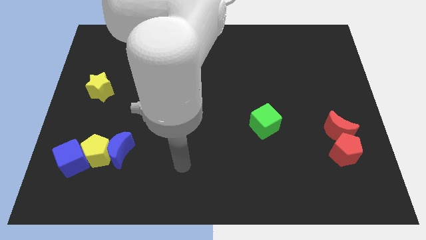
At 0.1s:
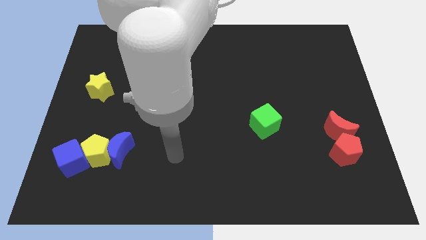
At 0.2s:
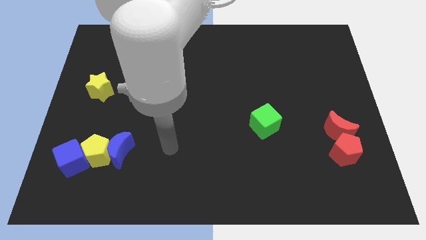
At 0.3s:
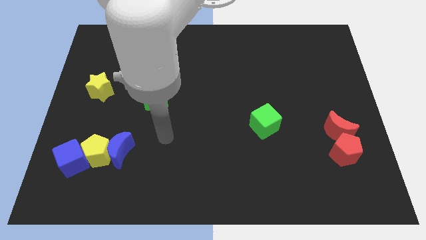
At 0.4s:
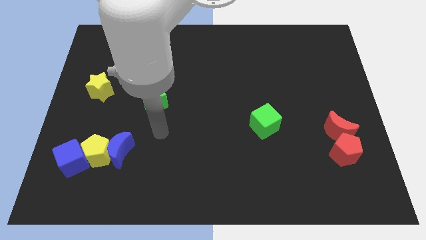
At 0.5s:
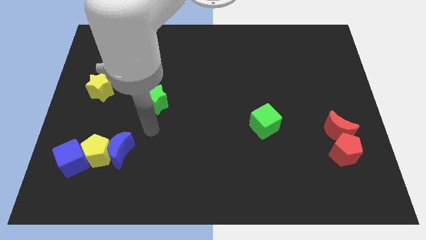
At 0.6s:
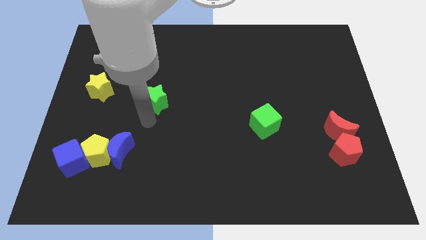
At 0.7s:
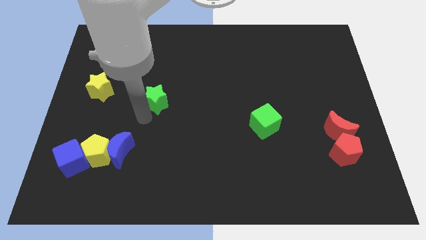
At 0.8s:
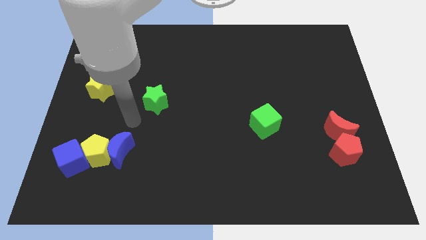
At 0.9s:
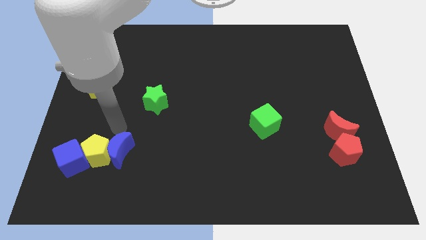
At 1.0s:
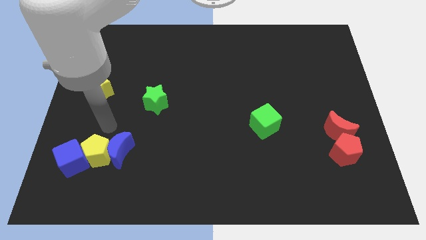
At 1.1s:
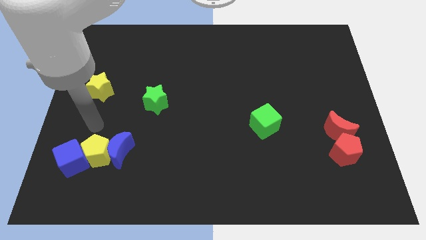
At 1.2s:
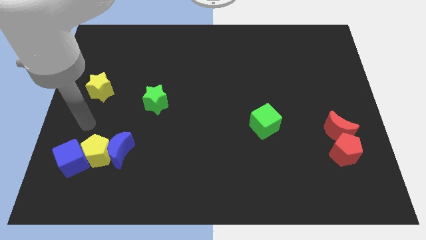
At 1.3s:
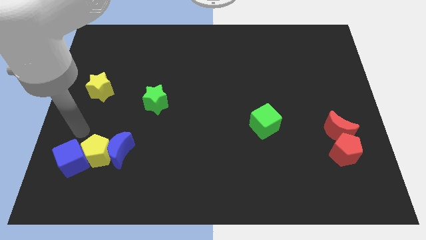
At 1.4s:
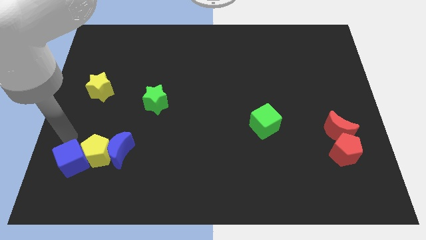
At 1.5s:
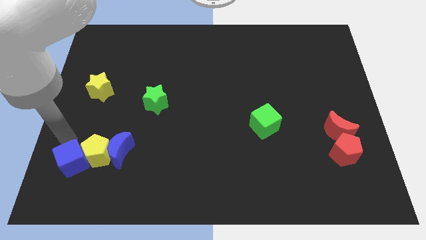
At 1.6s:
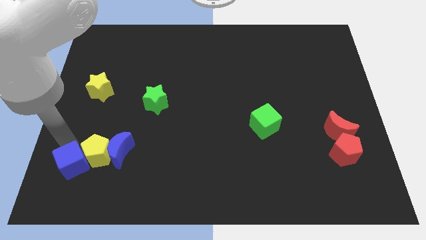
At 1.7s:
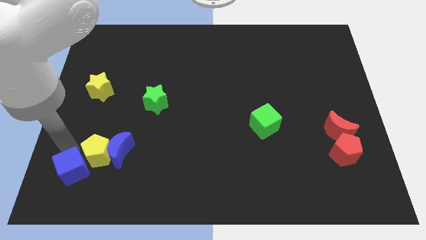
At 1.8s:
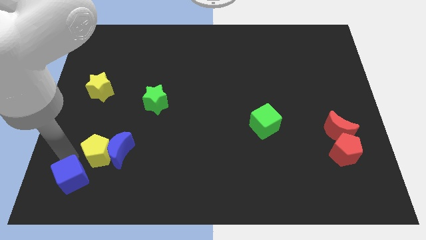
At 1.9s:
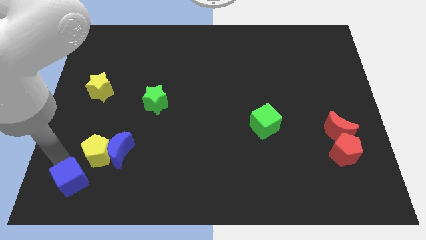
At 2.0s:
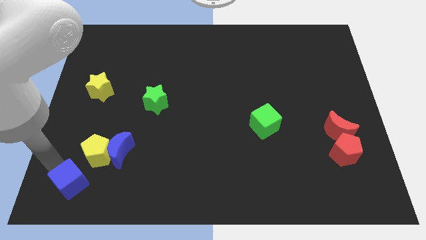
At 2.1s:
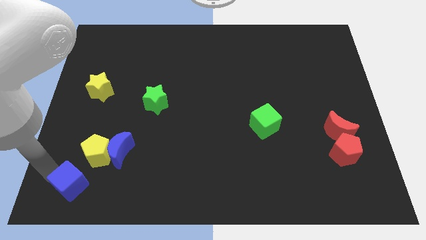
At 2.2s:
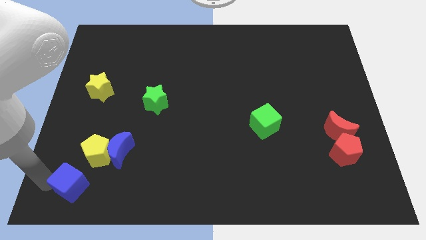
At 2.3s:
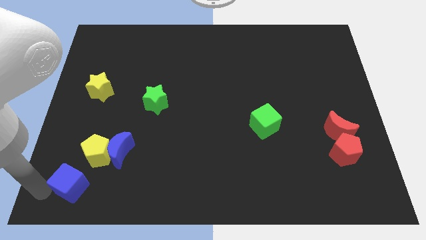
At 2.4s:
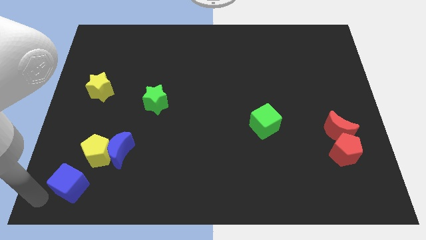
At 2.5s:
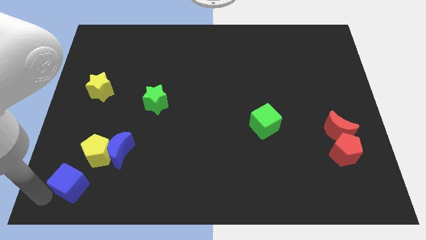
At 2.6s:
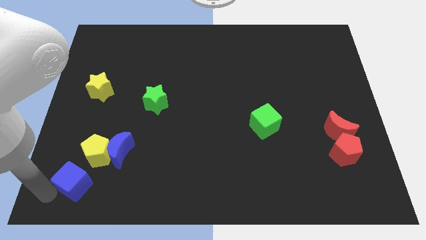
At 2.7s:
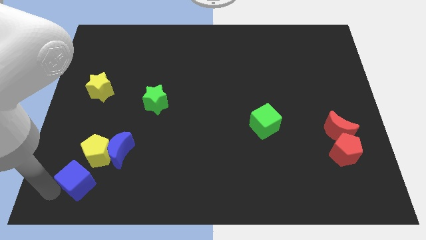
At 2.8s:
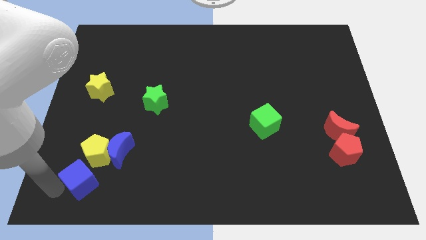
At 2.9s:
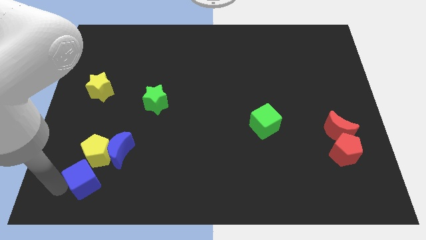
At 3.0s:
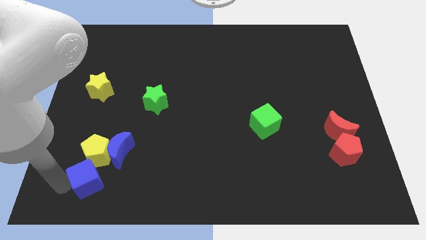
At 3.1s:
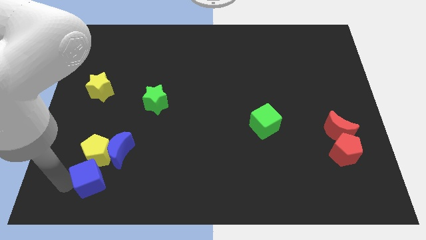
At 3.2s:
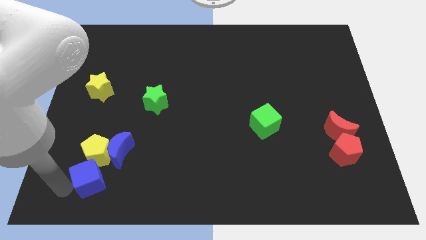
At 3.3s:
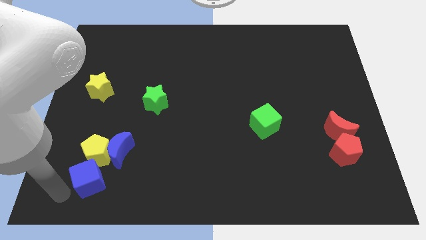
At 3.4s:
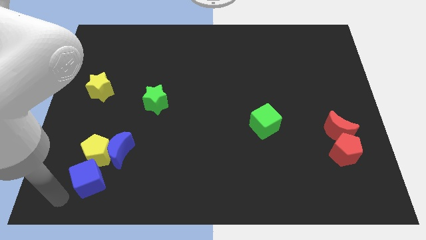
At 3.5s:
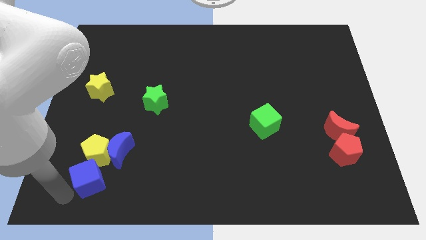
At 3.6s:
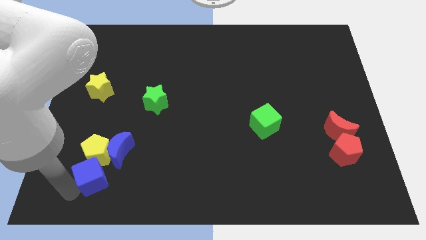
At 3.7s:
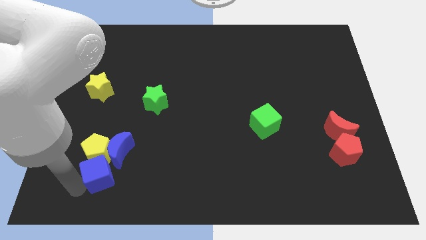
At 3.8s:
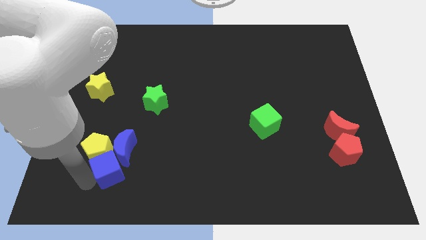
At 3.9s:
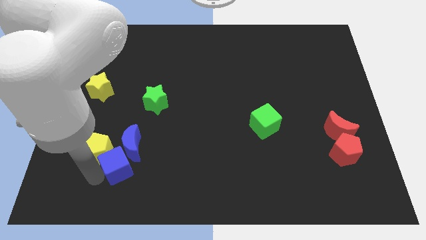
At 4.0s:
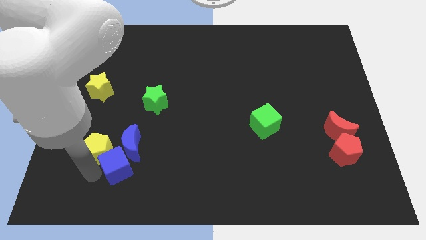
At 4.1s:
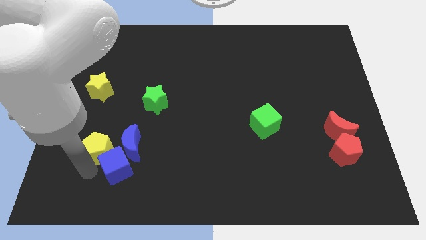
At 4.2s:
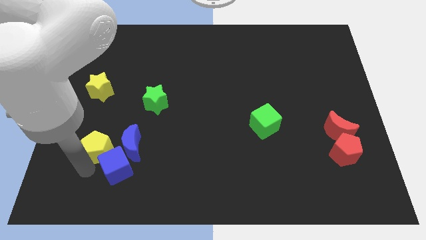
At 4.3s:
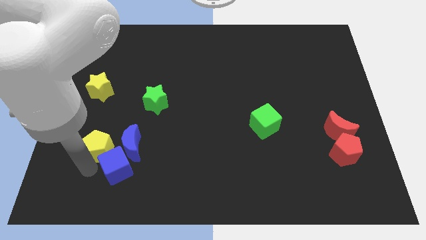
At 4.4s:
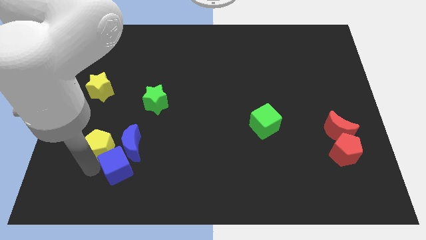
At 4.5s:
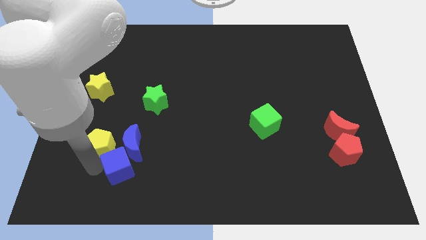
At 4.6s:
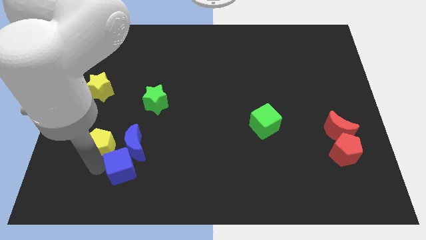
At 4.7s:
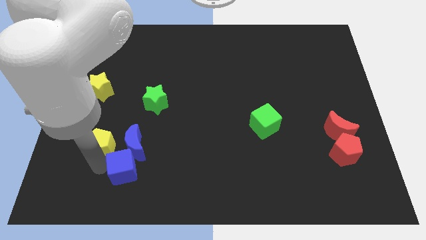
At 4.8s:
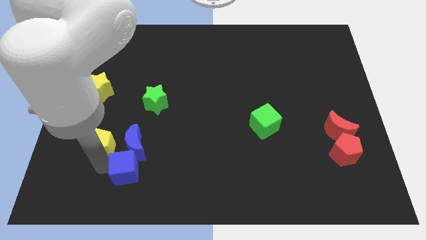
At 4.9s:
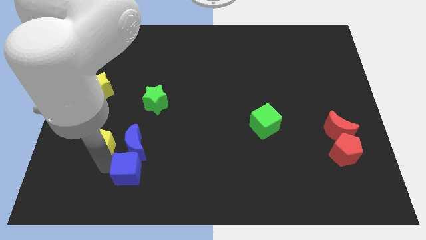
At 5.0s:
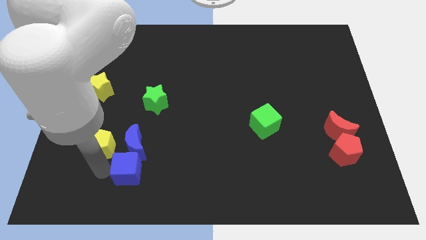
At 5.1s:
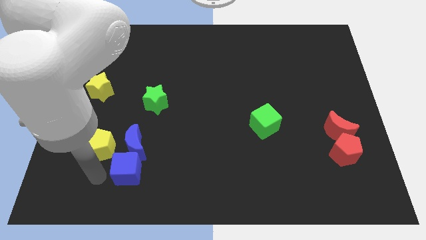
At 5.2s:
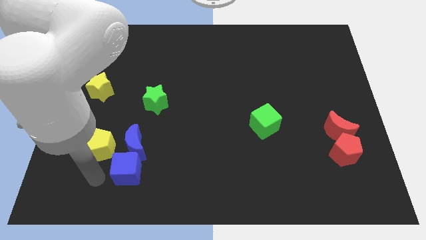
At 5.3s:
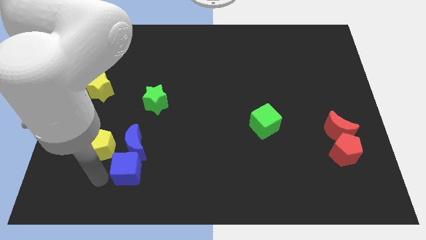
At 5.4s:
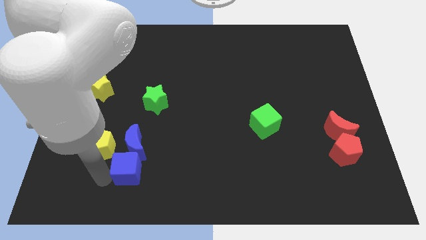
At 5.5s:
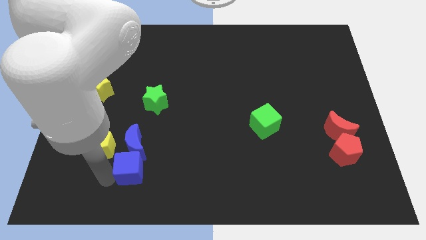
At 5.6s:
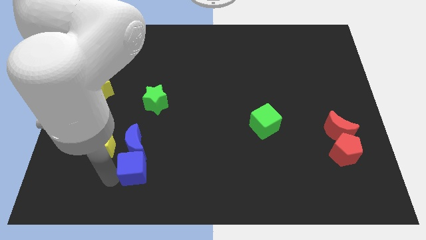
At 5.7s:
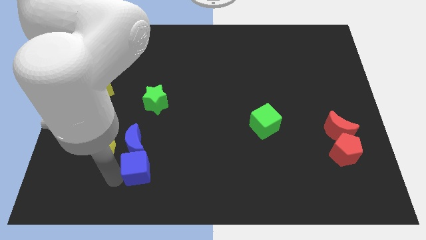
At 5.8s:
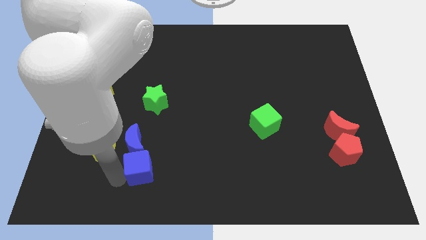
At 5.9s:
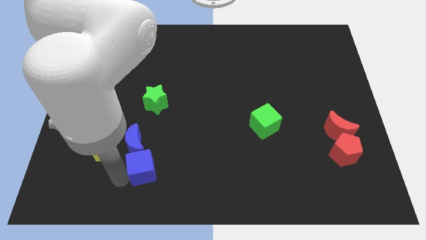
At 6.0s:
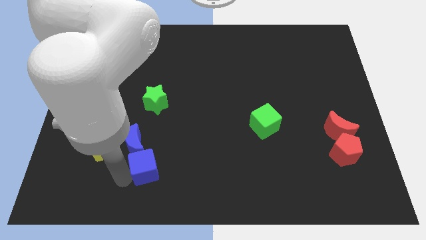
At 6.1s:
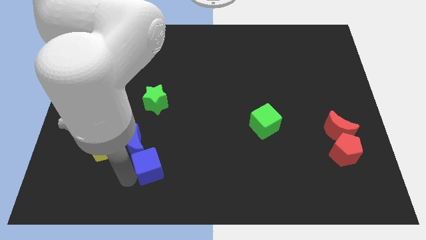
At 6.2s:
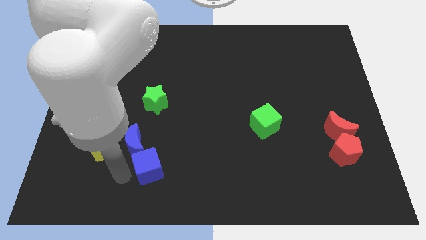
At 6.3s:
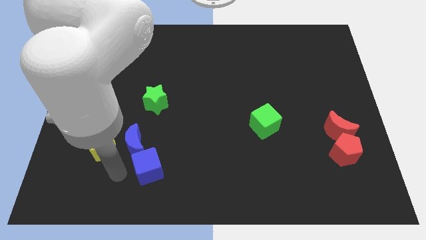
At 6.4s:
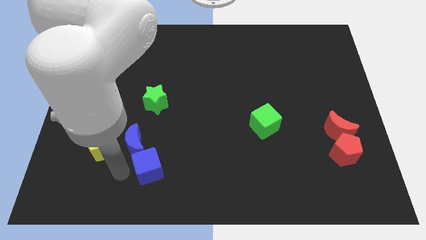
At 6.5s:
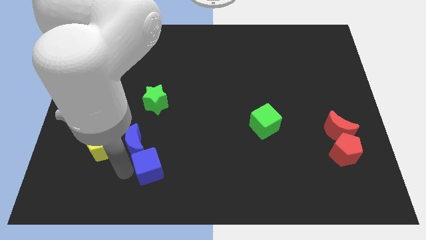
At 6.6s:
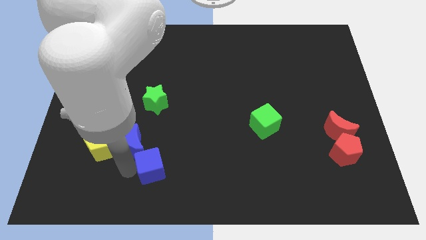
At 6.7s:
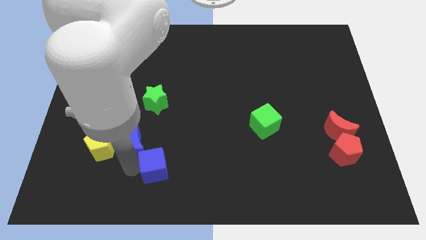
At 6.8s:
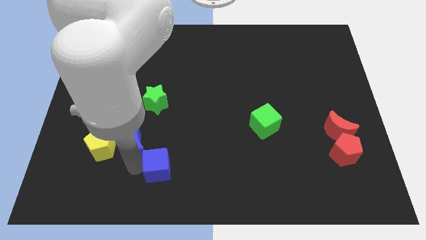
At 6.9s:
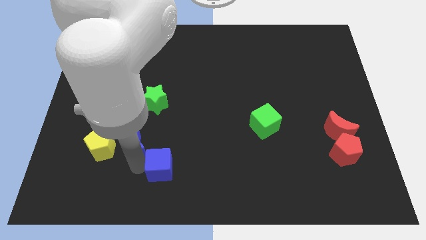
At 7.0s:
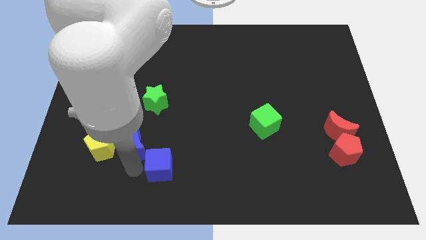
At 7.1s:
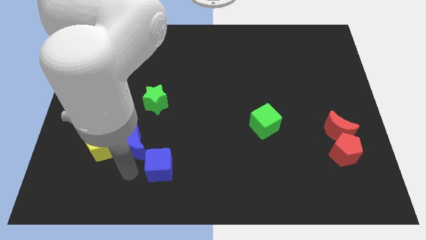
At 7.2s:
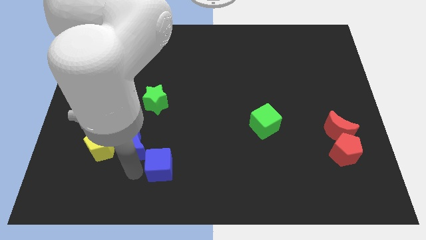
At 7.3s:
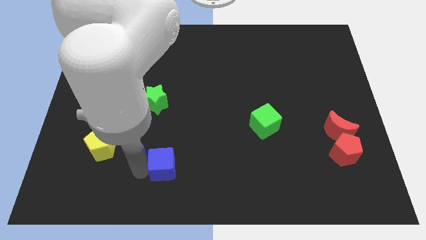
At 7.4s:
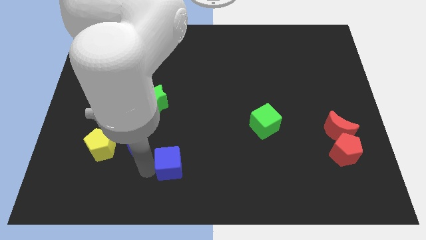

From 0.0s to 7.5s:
slide the blue cube right

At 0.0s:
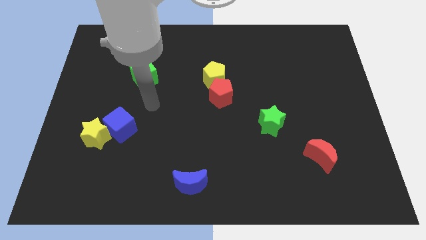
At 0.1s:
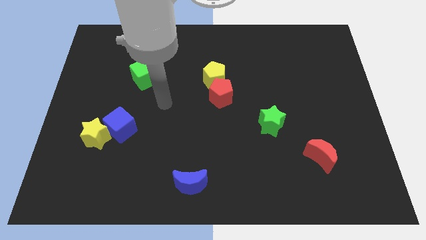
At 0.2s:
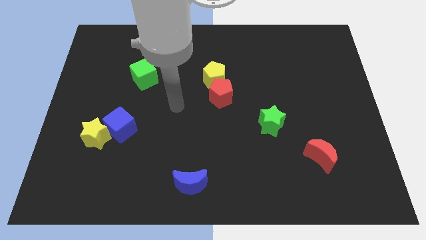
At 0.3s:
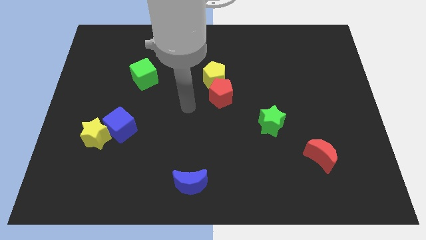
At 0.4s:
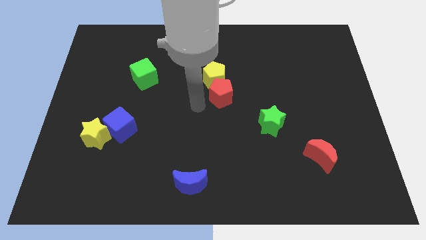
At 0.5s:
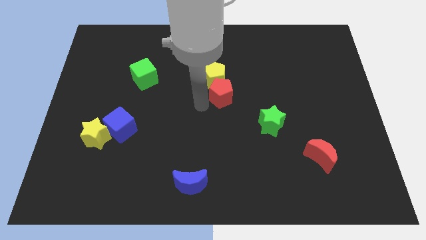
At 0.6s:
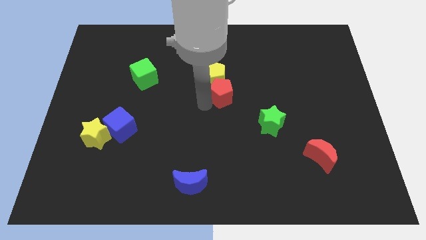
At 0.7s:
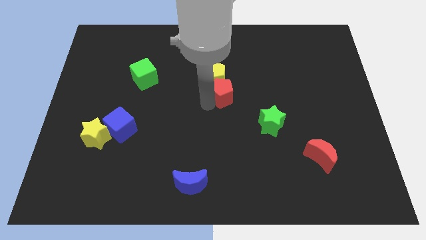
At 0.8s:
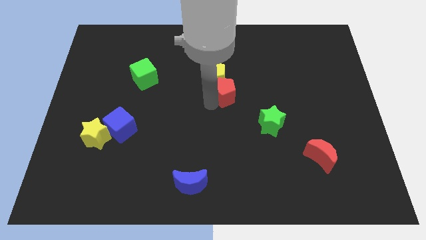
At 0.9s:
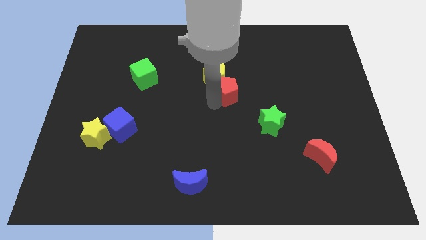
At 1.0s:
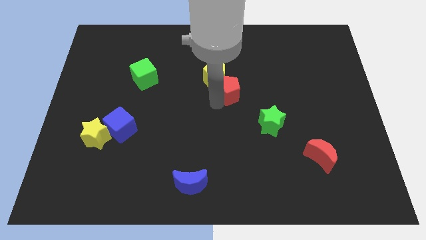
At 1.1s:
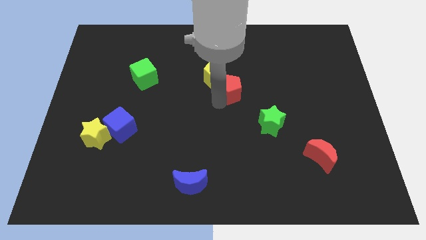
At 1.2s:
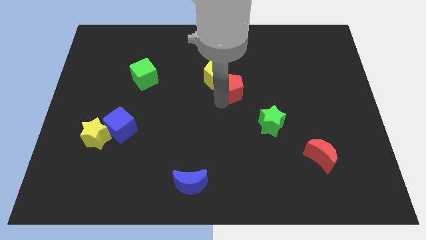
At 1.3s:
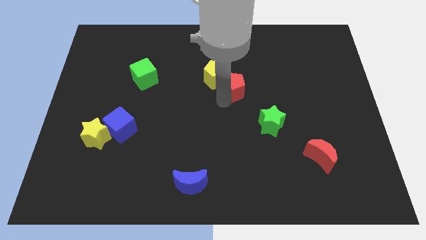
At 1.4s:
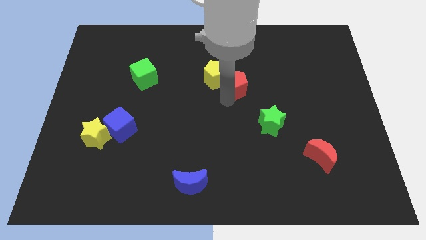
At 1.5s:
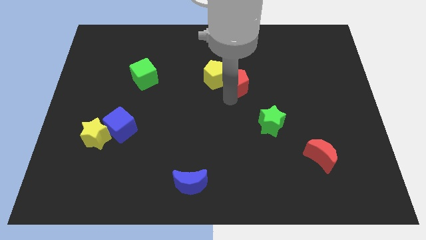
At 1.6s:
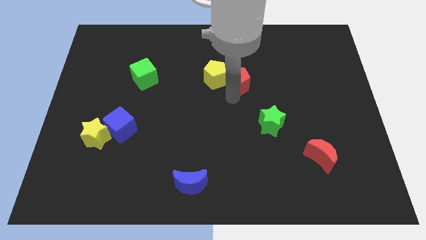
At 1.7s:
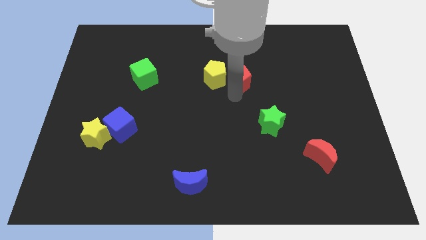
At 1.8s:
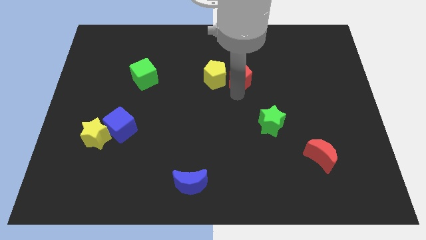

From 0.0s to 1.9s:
slightly slide the red pentagon up and then to the right
